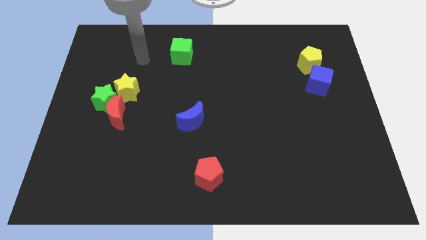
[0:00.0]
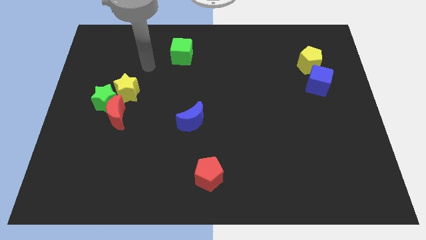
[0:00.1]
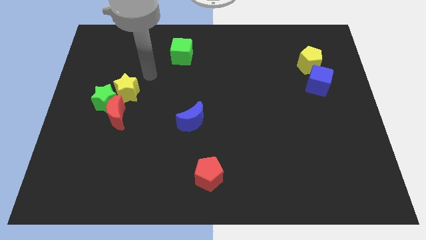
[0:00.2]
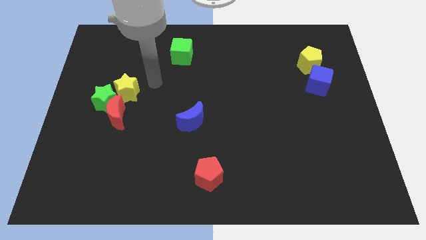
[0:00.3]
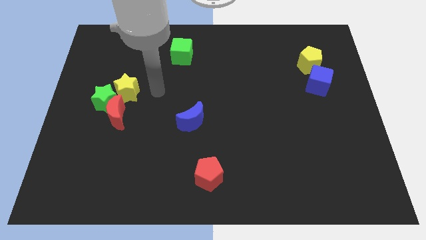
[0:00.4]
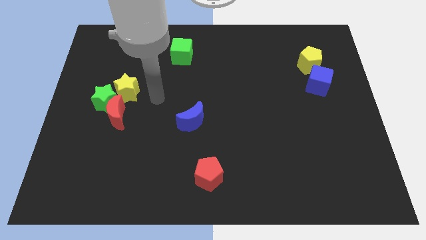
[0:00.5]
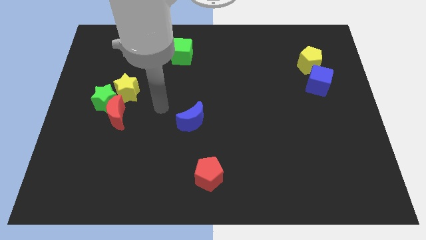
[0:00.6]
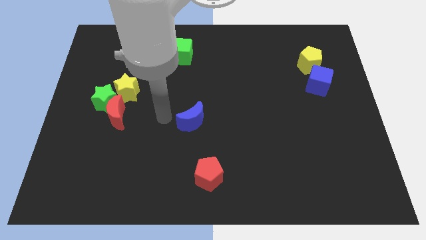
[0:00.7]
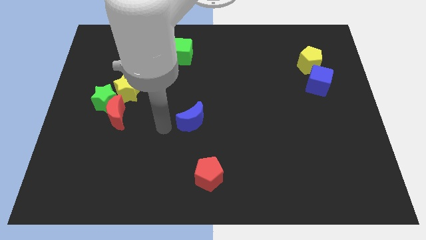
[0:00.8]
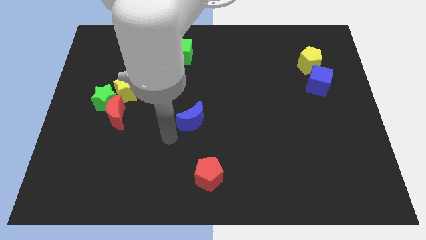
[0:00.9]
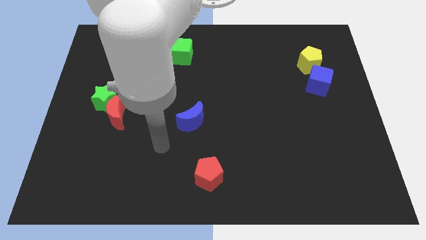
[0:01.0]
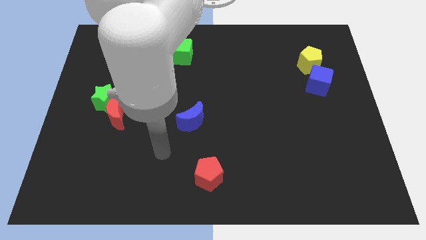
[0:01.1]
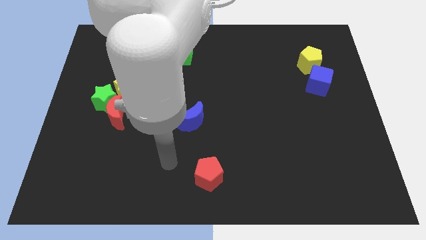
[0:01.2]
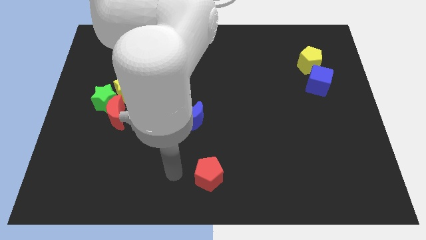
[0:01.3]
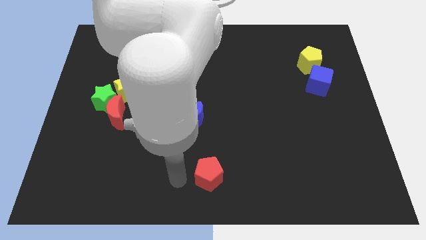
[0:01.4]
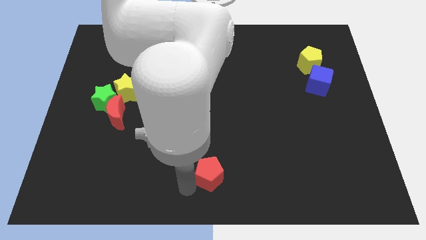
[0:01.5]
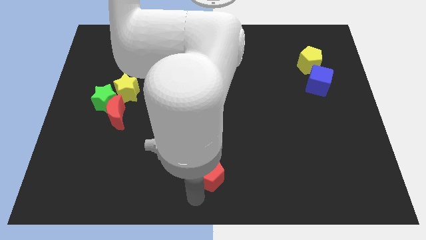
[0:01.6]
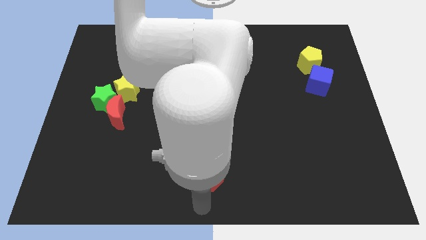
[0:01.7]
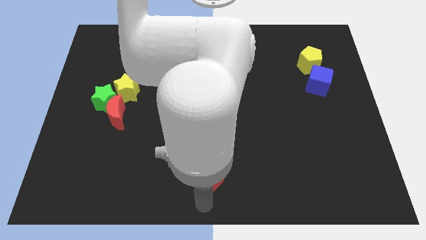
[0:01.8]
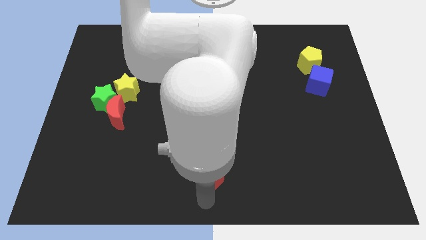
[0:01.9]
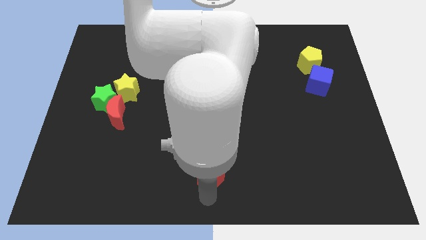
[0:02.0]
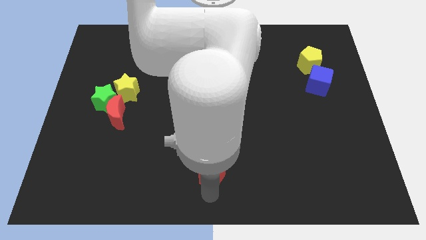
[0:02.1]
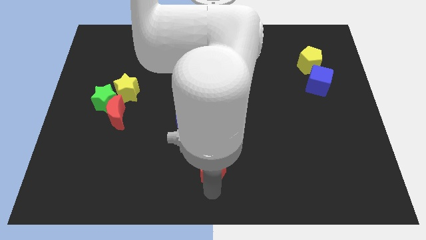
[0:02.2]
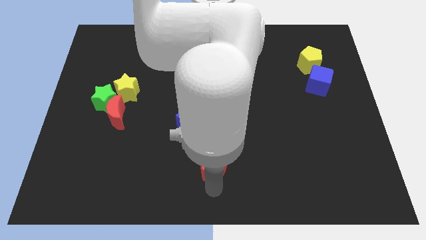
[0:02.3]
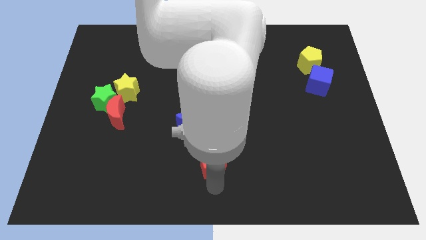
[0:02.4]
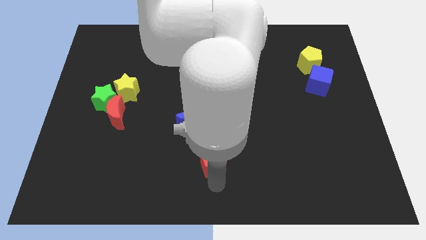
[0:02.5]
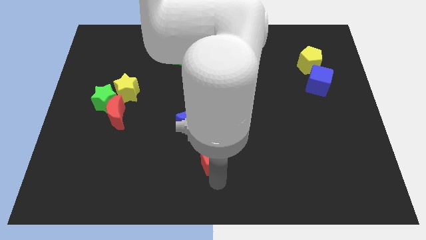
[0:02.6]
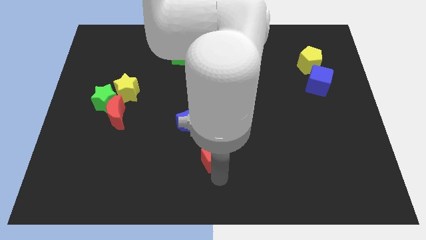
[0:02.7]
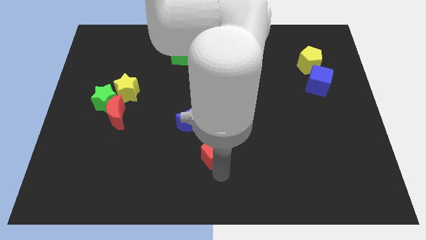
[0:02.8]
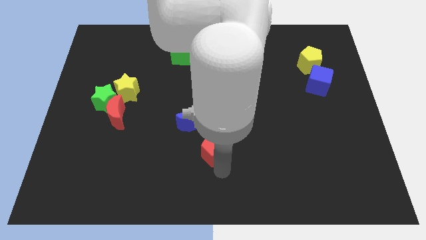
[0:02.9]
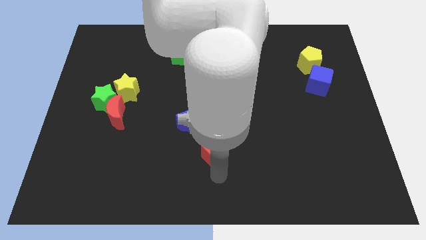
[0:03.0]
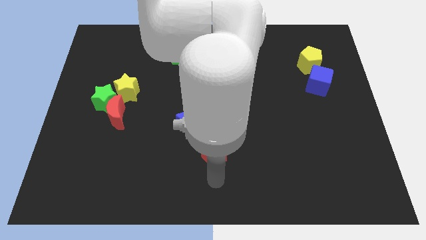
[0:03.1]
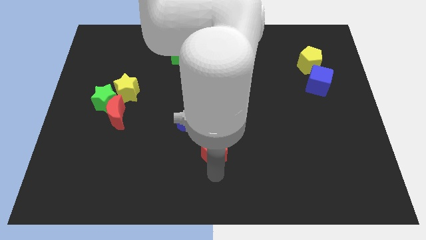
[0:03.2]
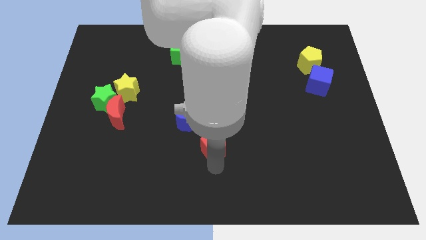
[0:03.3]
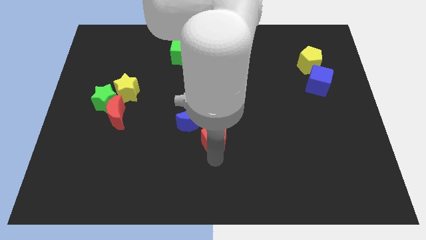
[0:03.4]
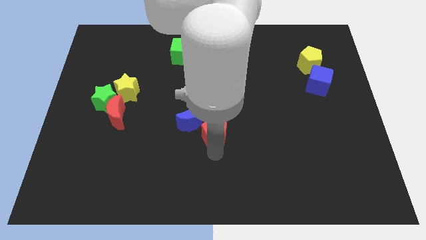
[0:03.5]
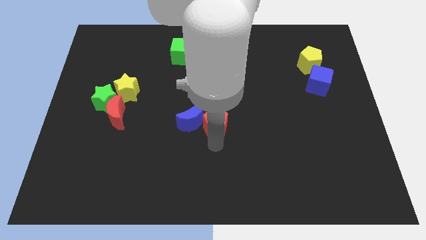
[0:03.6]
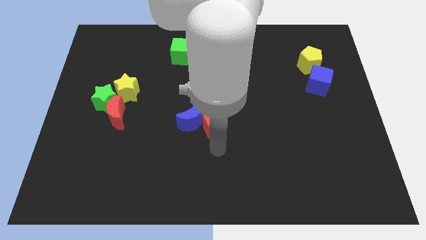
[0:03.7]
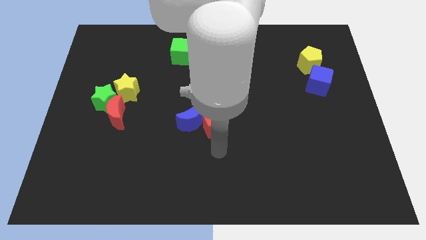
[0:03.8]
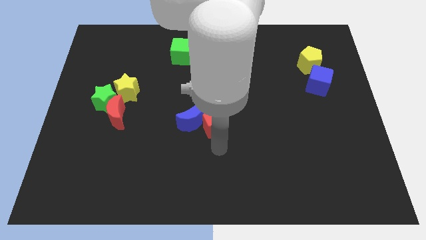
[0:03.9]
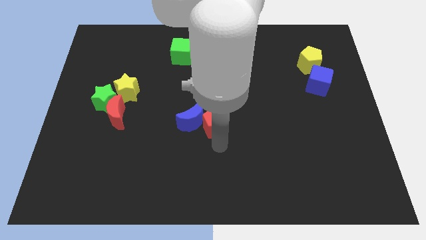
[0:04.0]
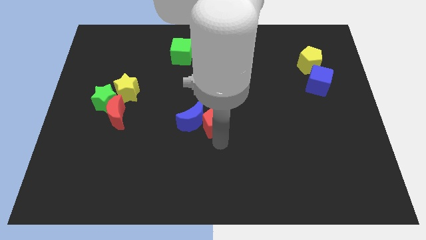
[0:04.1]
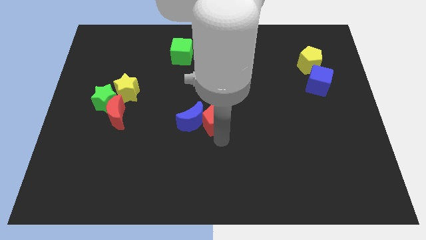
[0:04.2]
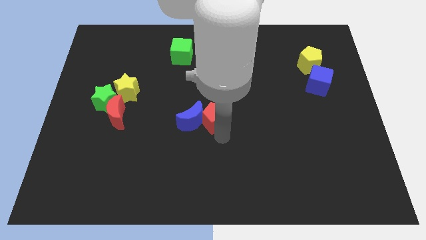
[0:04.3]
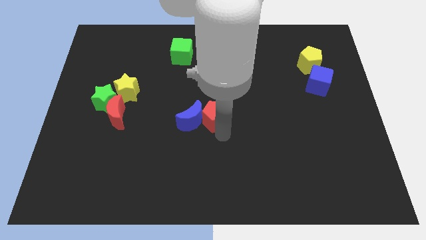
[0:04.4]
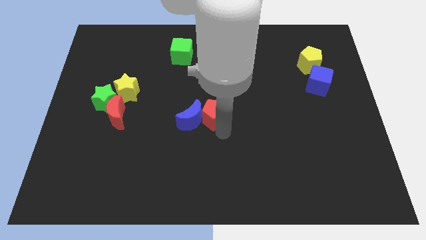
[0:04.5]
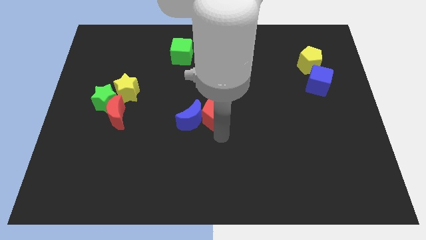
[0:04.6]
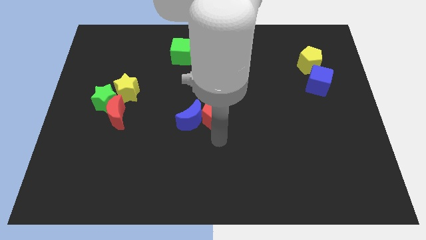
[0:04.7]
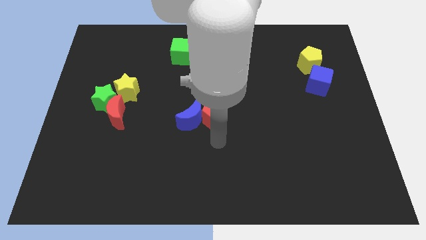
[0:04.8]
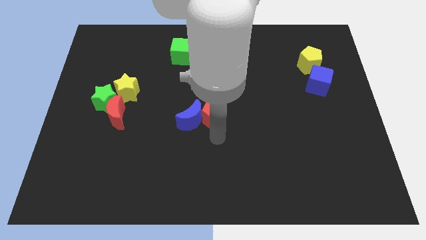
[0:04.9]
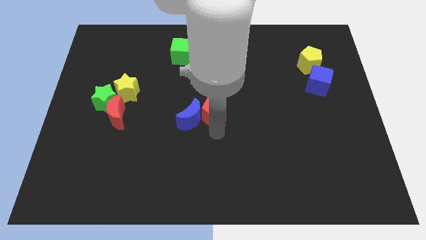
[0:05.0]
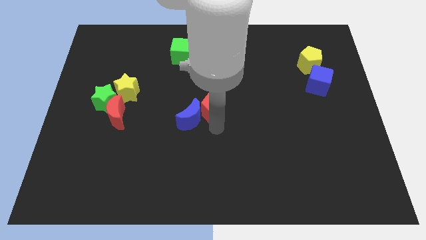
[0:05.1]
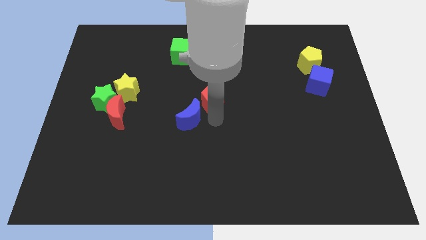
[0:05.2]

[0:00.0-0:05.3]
slide the red pentagon upwards

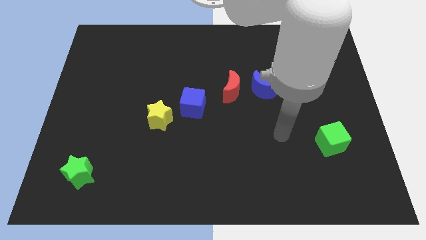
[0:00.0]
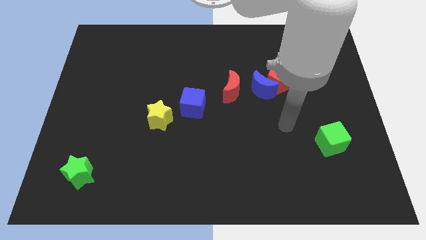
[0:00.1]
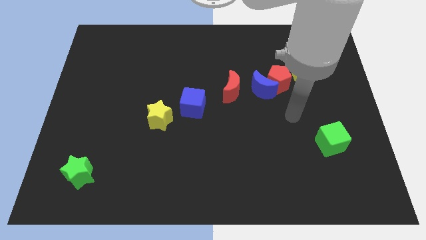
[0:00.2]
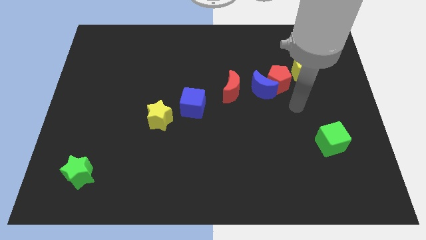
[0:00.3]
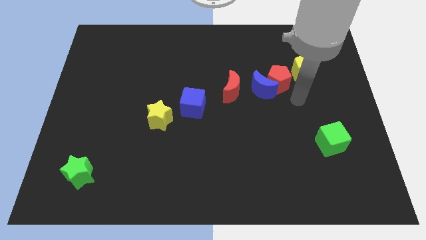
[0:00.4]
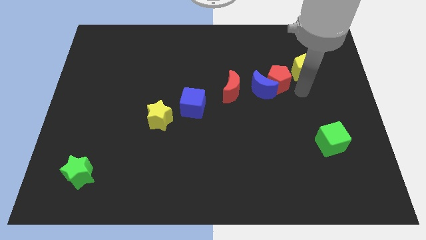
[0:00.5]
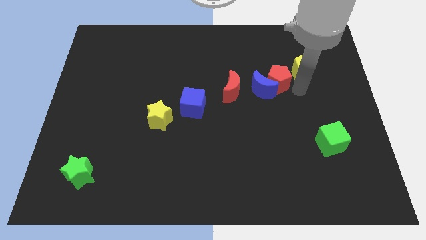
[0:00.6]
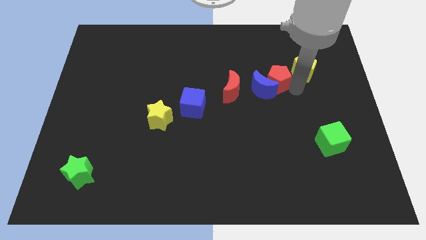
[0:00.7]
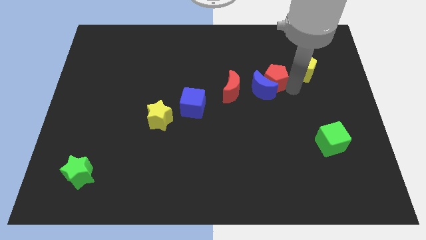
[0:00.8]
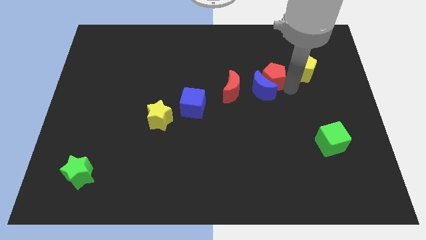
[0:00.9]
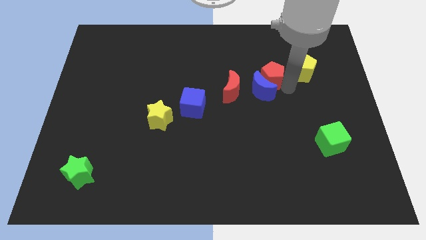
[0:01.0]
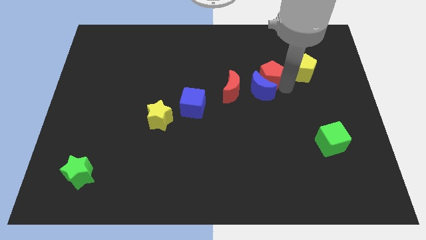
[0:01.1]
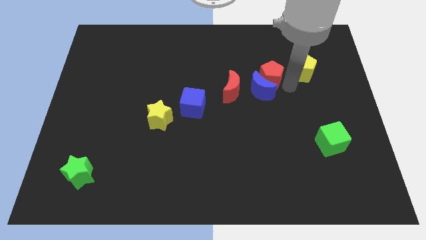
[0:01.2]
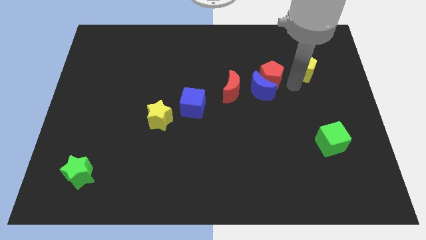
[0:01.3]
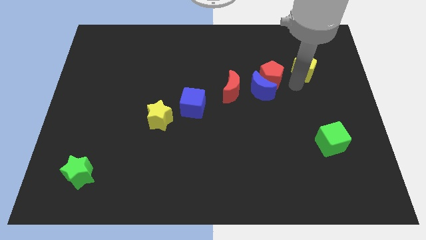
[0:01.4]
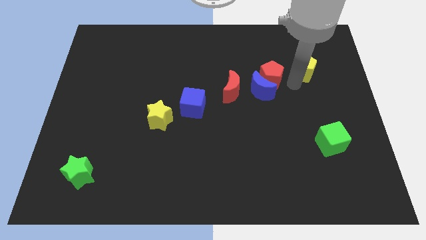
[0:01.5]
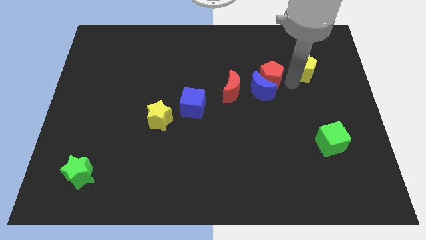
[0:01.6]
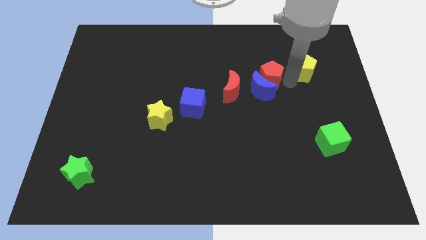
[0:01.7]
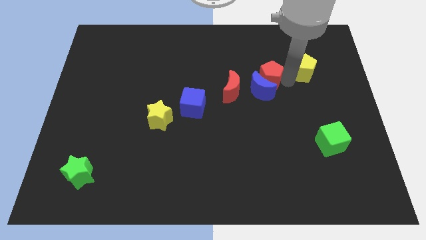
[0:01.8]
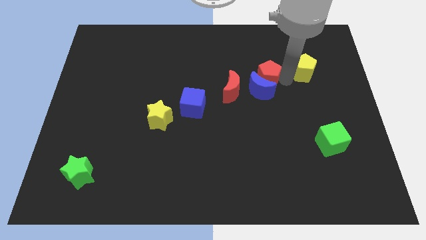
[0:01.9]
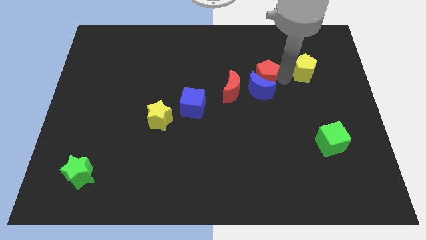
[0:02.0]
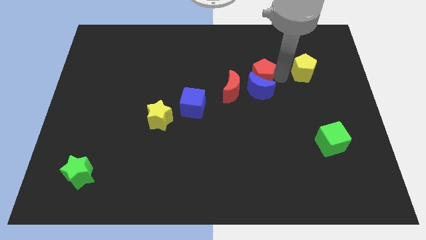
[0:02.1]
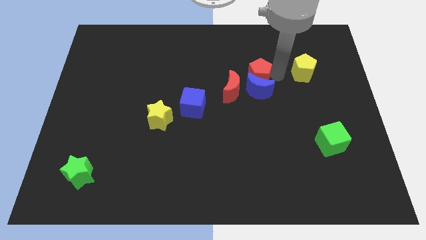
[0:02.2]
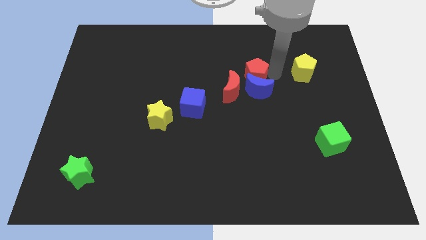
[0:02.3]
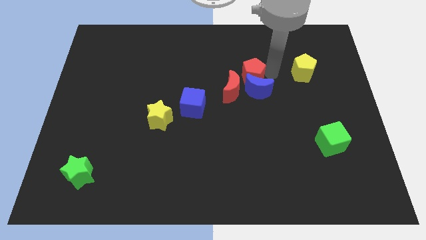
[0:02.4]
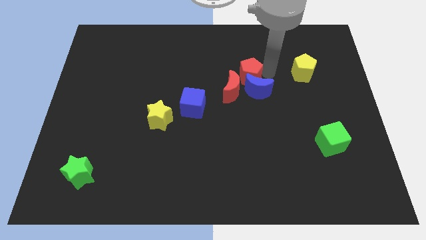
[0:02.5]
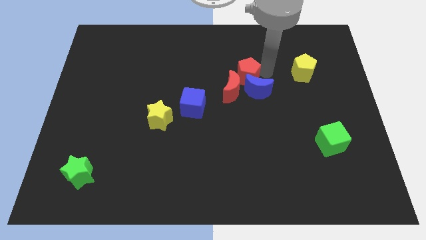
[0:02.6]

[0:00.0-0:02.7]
push the red pentagon a little bit left
